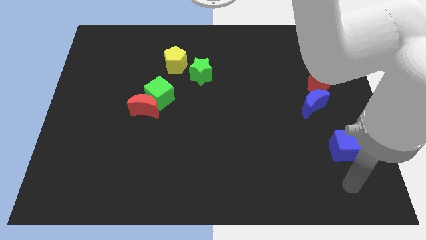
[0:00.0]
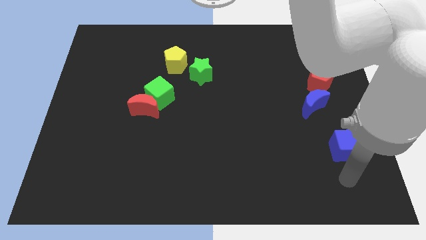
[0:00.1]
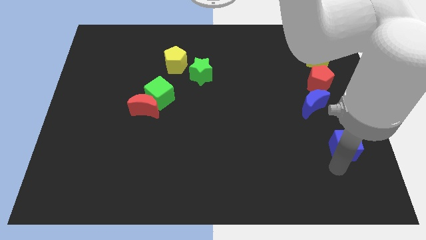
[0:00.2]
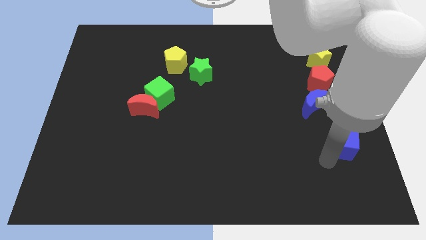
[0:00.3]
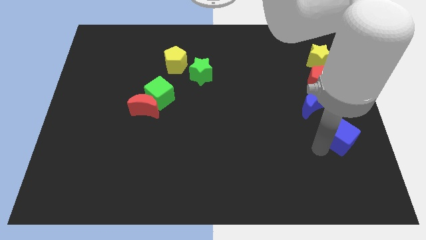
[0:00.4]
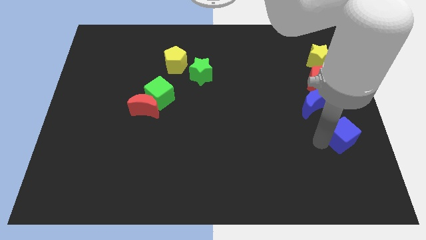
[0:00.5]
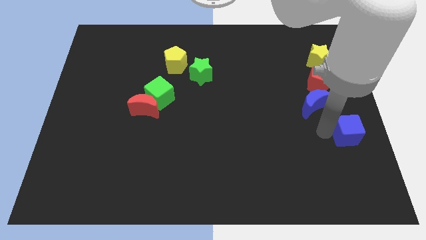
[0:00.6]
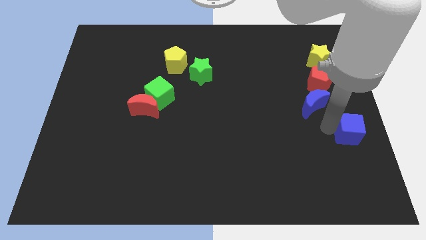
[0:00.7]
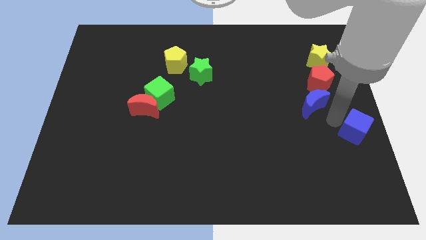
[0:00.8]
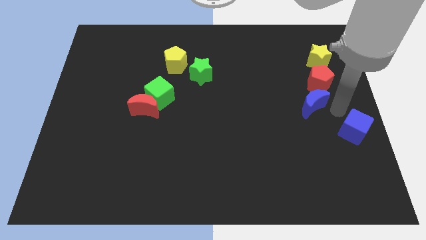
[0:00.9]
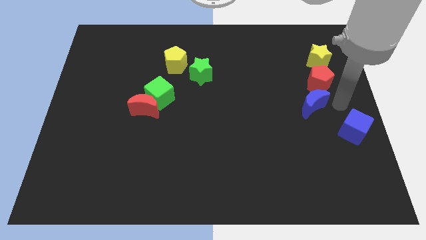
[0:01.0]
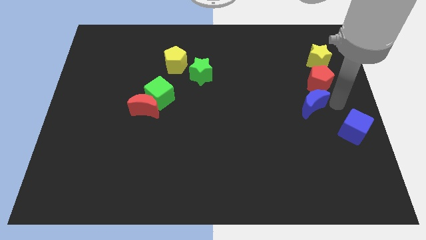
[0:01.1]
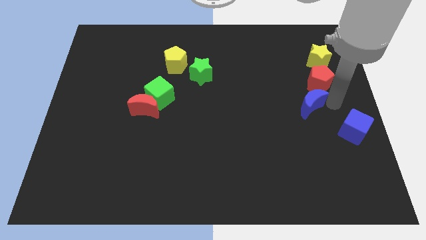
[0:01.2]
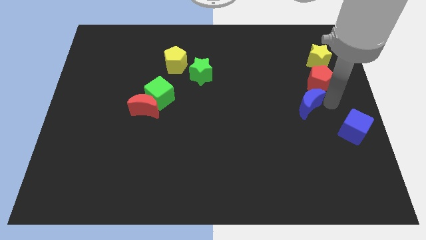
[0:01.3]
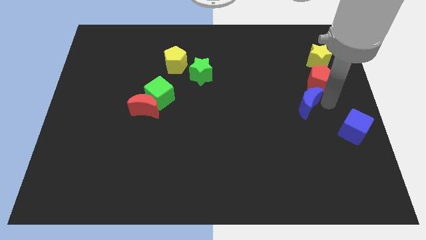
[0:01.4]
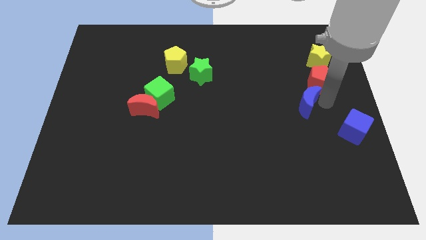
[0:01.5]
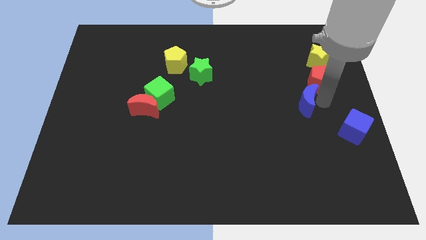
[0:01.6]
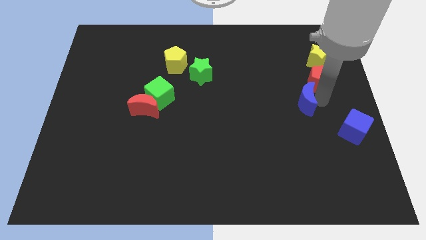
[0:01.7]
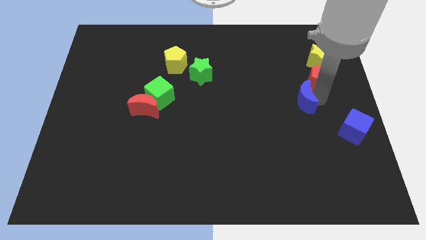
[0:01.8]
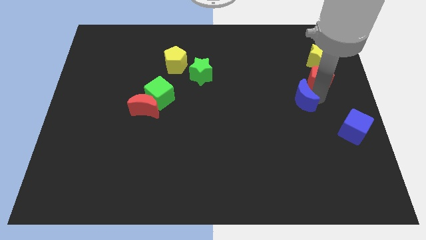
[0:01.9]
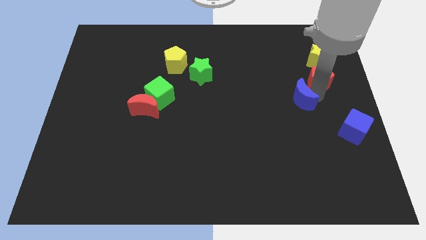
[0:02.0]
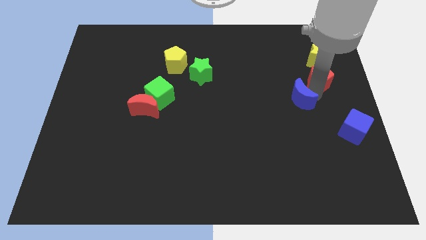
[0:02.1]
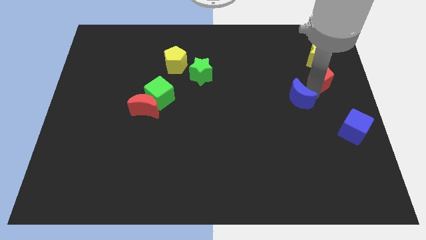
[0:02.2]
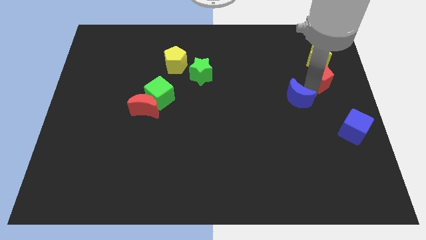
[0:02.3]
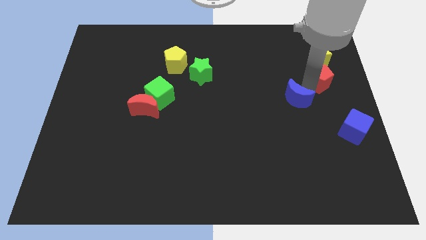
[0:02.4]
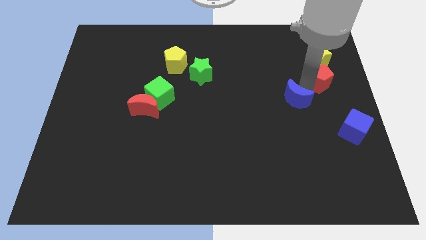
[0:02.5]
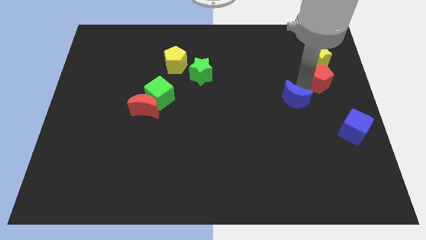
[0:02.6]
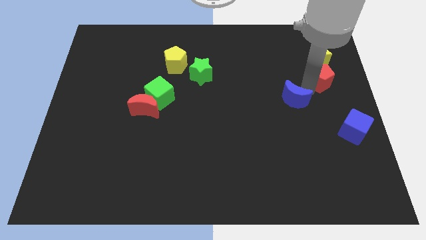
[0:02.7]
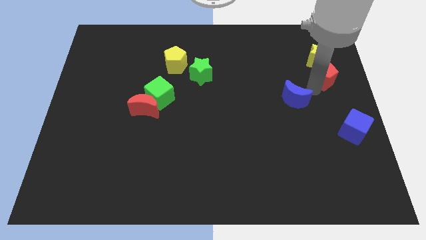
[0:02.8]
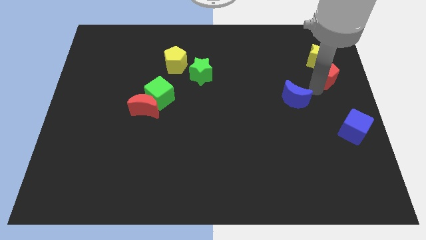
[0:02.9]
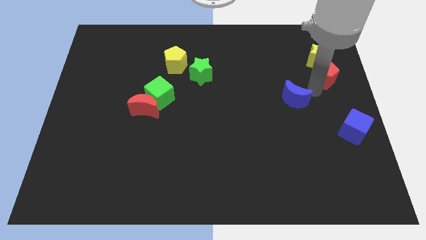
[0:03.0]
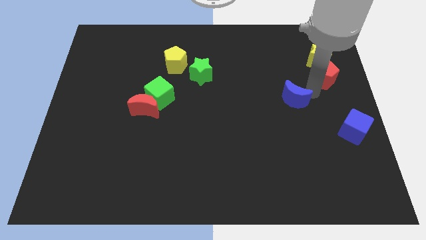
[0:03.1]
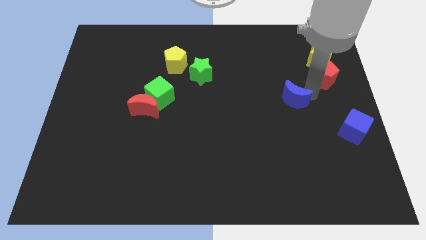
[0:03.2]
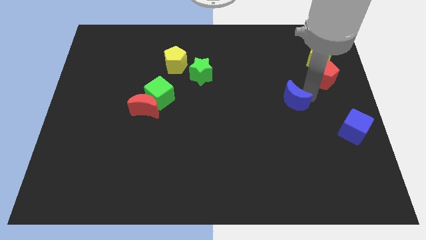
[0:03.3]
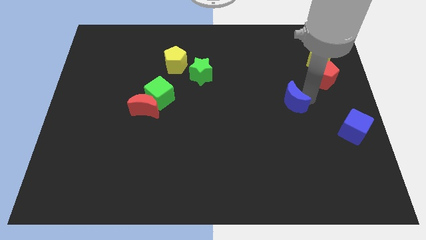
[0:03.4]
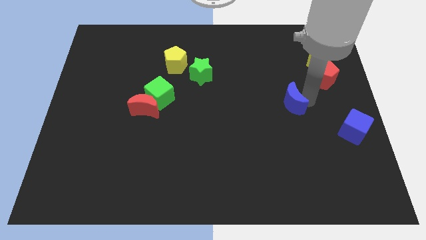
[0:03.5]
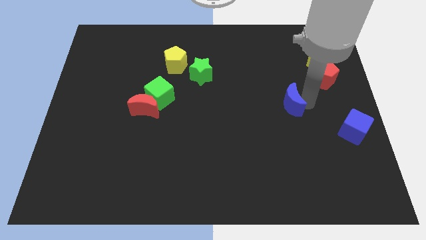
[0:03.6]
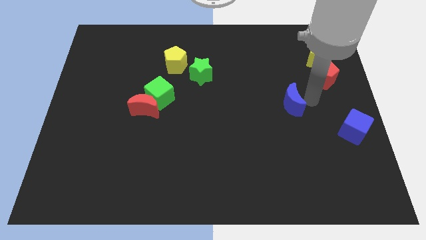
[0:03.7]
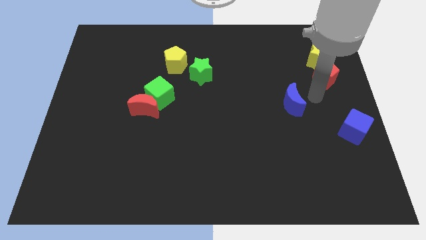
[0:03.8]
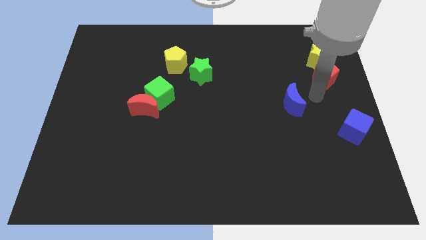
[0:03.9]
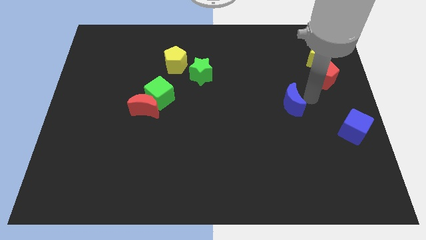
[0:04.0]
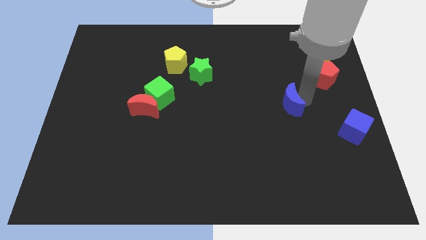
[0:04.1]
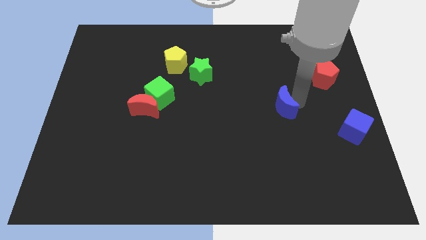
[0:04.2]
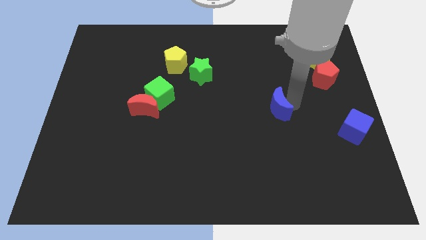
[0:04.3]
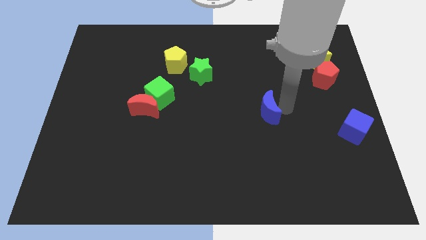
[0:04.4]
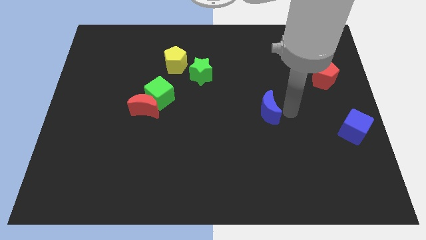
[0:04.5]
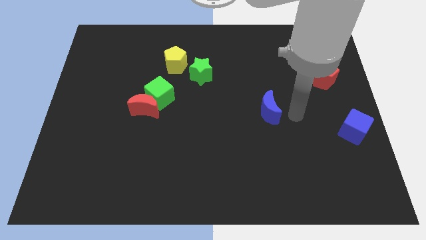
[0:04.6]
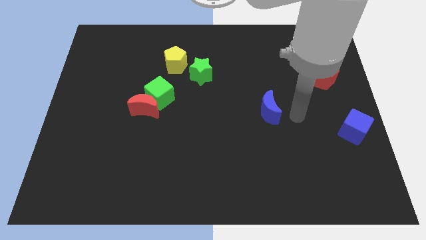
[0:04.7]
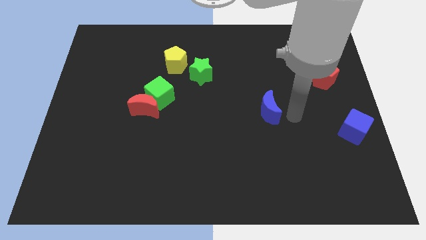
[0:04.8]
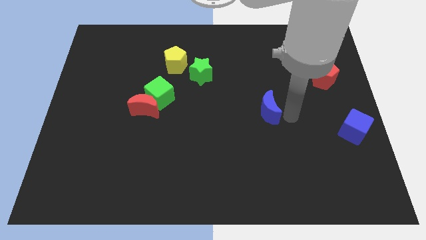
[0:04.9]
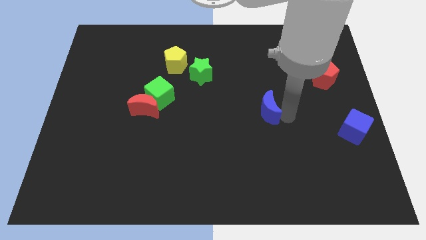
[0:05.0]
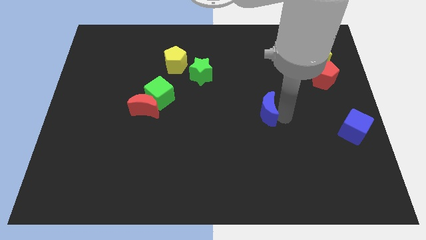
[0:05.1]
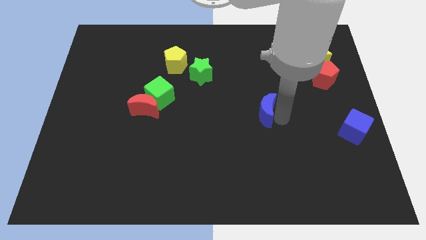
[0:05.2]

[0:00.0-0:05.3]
move the blue moon to the middle of the board

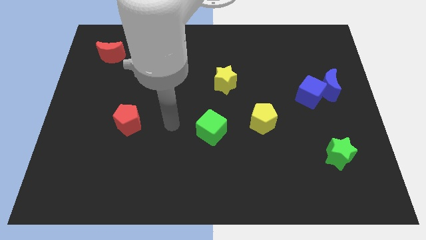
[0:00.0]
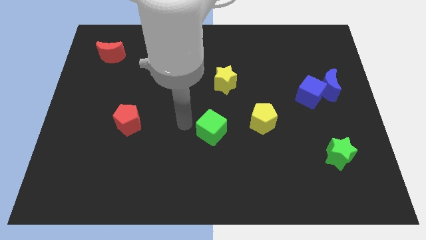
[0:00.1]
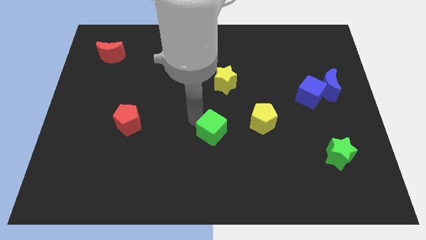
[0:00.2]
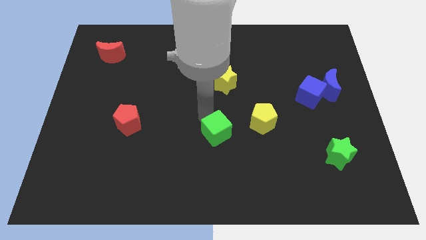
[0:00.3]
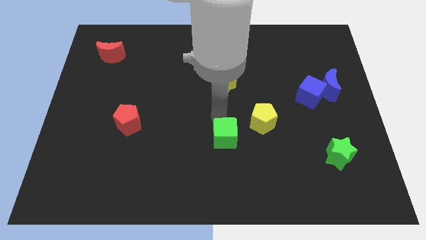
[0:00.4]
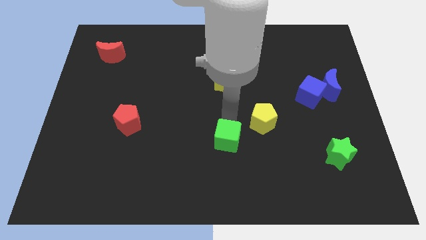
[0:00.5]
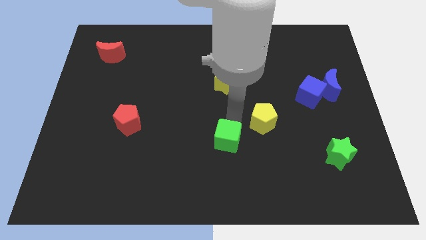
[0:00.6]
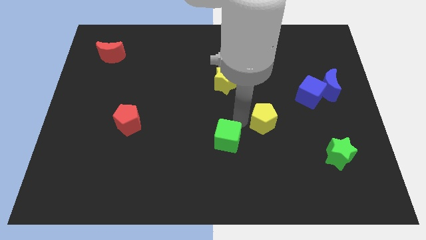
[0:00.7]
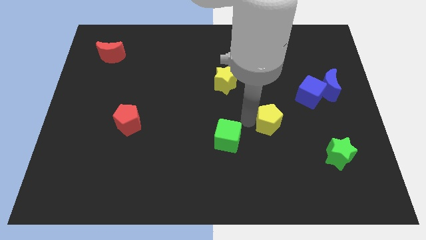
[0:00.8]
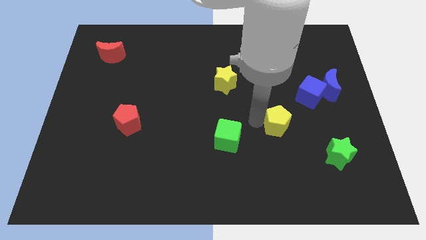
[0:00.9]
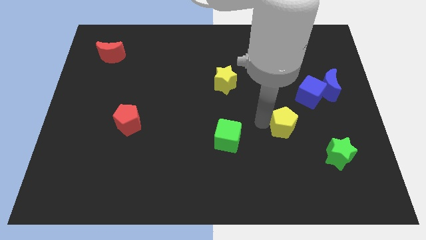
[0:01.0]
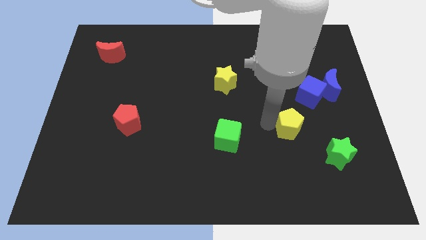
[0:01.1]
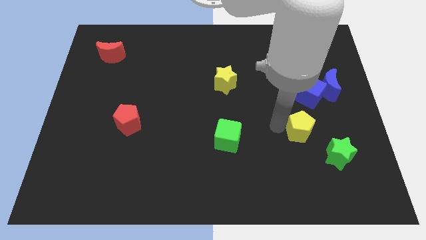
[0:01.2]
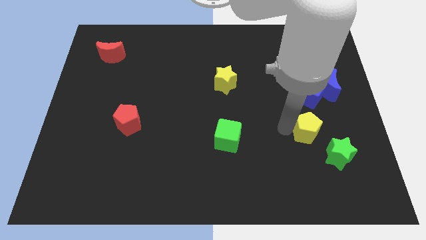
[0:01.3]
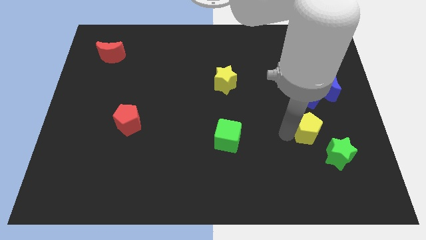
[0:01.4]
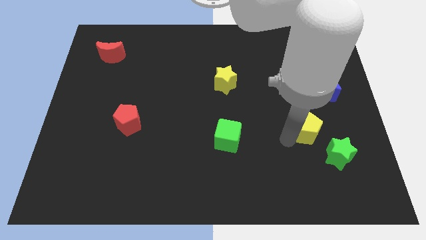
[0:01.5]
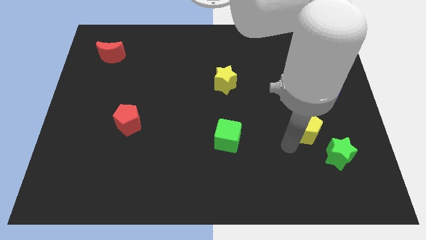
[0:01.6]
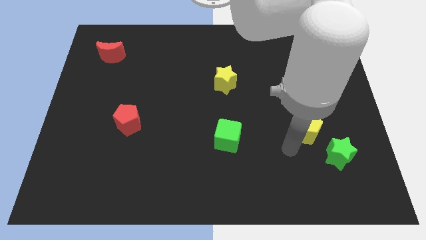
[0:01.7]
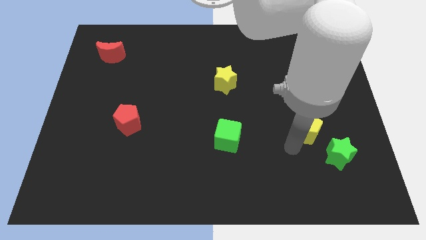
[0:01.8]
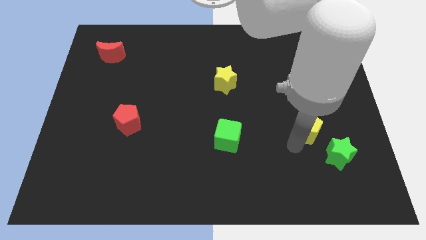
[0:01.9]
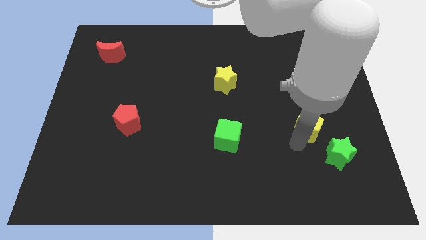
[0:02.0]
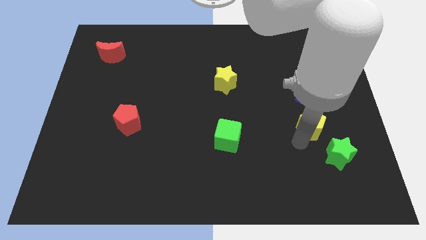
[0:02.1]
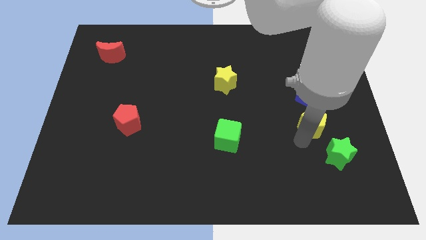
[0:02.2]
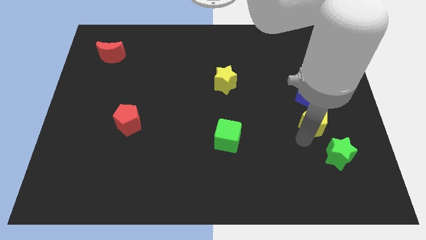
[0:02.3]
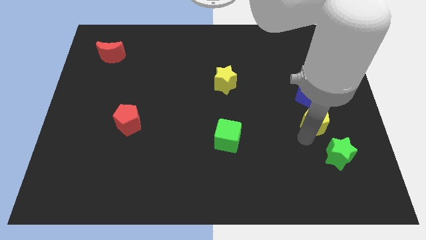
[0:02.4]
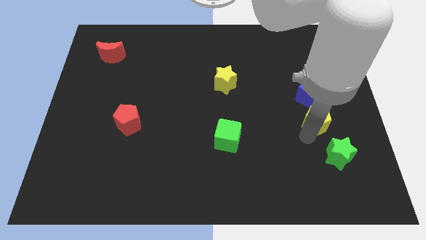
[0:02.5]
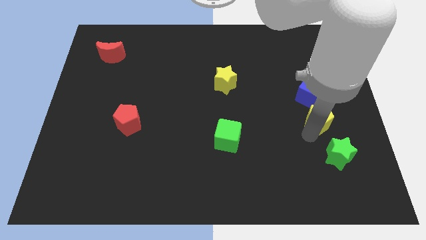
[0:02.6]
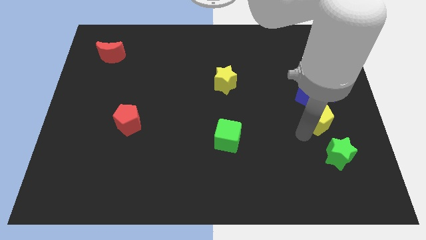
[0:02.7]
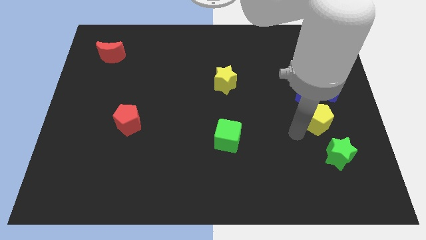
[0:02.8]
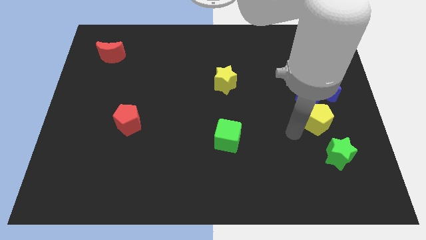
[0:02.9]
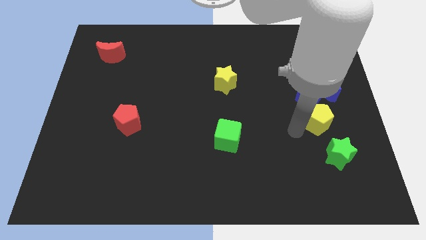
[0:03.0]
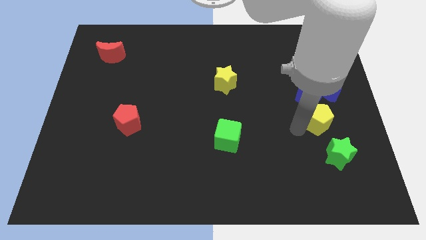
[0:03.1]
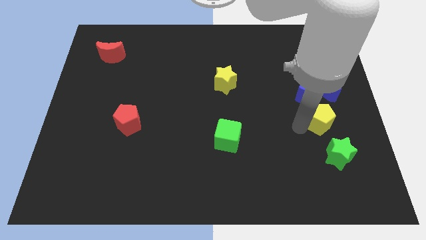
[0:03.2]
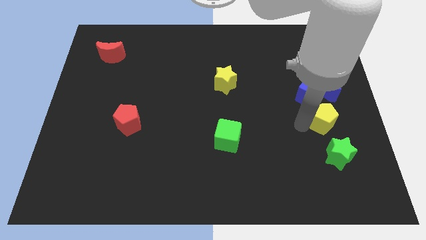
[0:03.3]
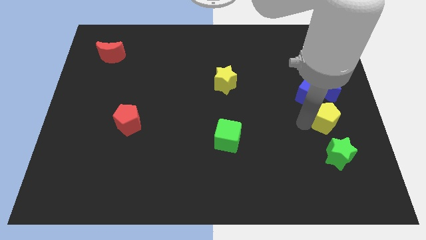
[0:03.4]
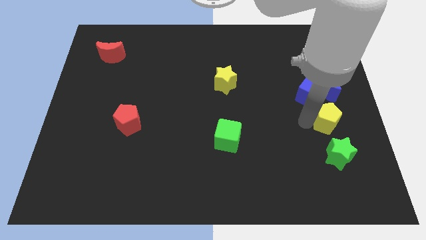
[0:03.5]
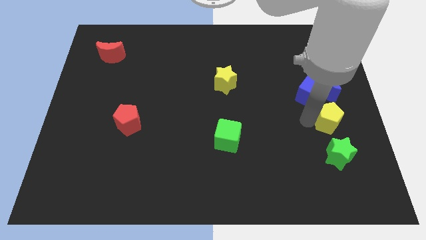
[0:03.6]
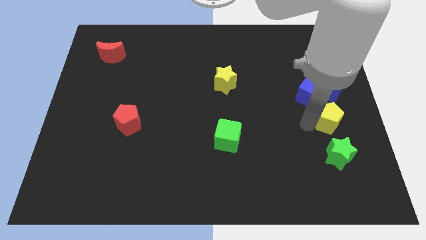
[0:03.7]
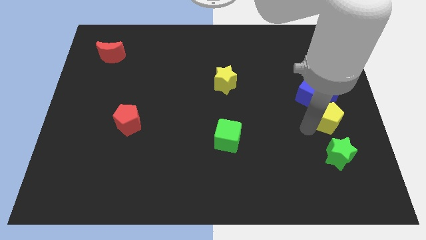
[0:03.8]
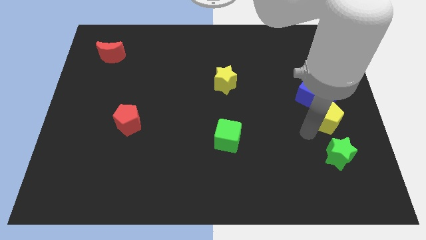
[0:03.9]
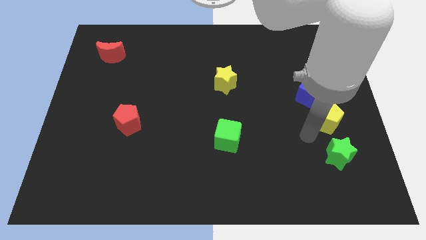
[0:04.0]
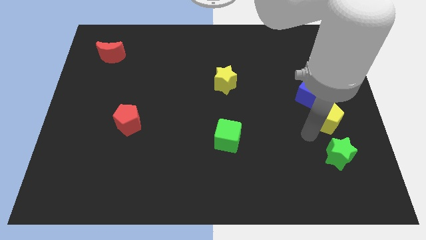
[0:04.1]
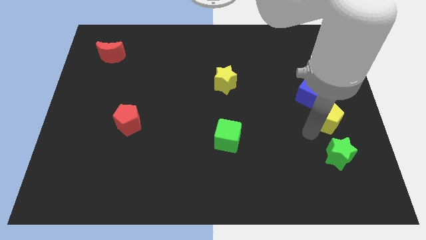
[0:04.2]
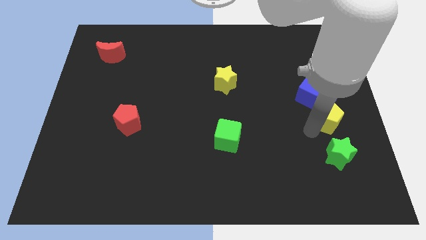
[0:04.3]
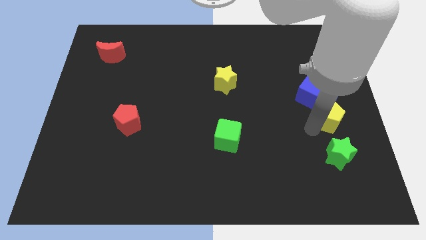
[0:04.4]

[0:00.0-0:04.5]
put the yellow pentagon to the right side of the board
